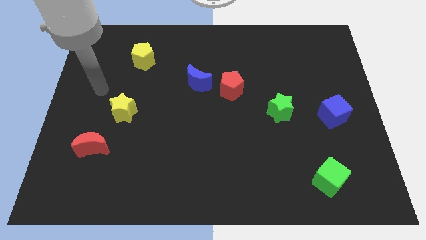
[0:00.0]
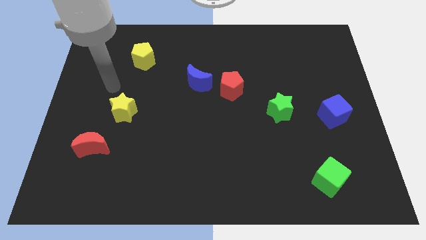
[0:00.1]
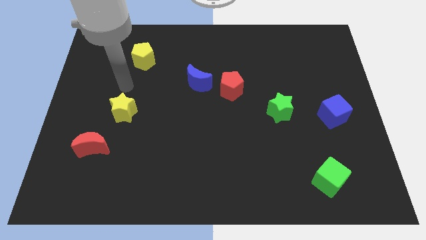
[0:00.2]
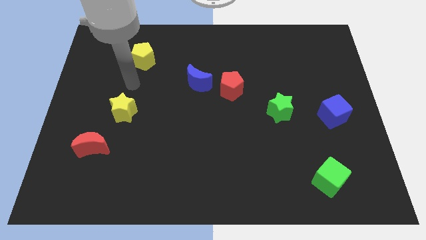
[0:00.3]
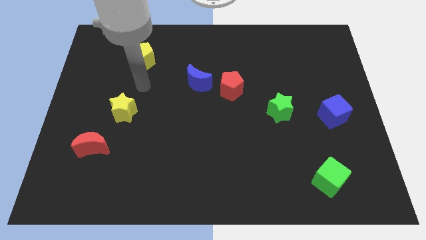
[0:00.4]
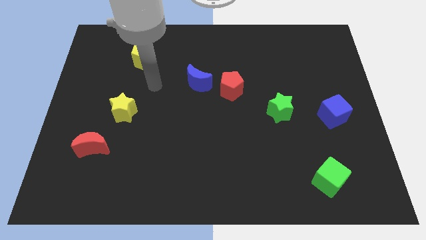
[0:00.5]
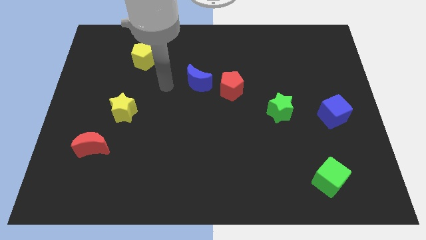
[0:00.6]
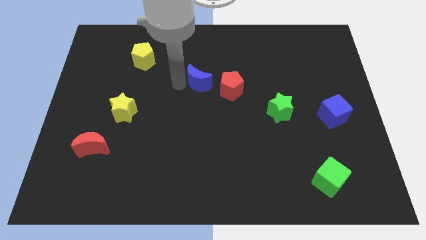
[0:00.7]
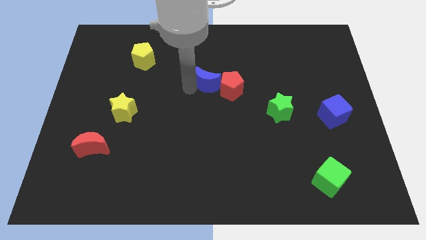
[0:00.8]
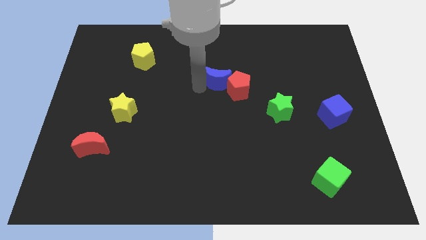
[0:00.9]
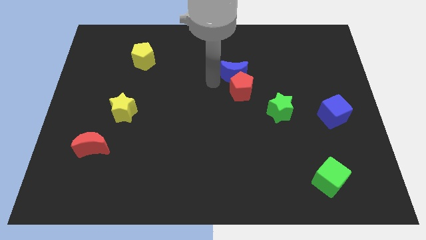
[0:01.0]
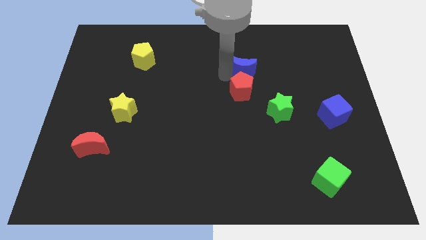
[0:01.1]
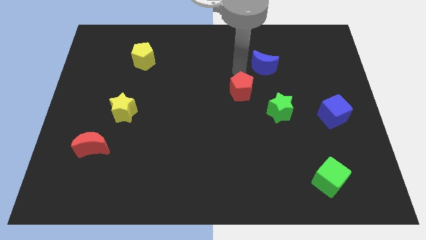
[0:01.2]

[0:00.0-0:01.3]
move the red pentagon away from the blue moon

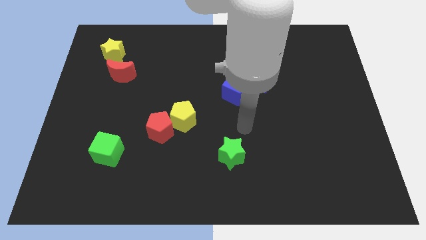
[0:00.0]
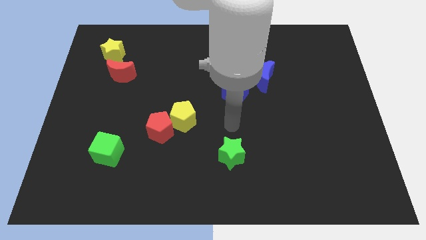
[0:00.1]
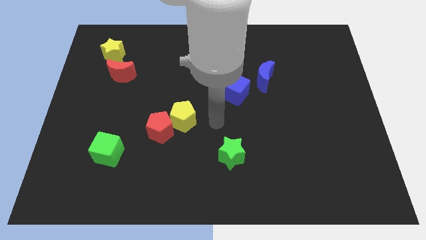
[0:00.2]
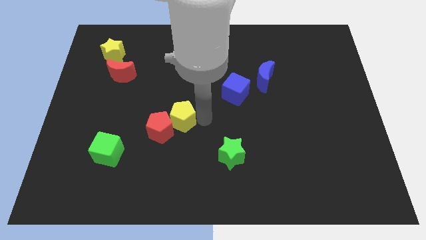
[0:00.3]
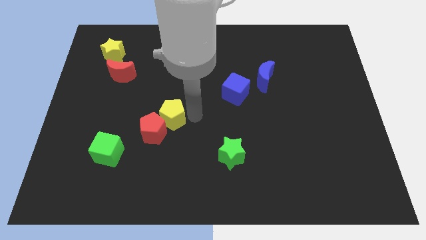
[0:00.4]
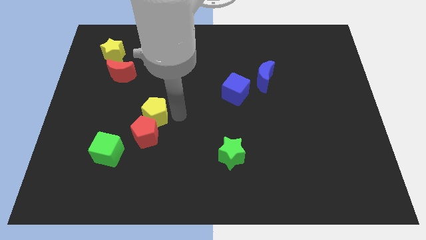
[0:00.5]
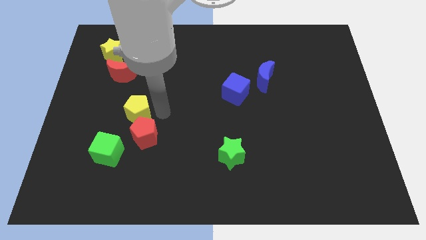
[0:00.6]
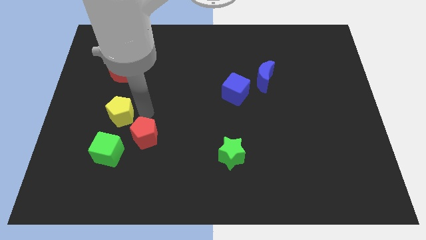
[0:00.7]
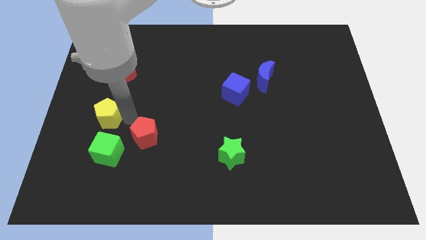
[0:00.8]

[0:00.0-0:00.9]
move the red pentagon away from the yellow pentagon

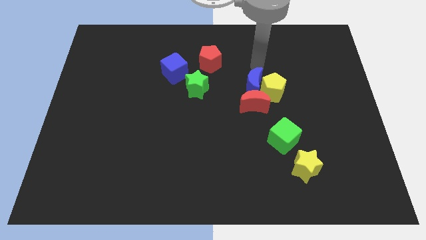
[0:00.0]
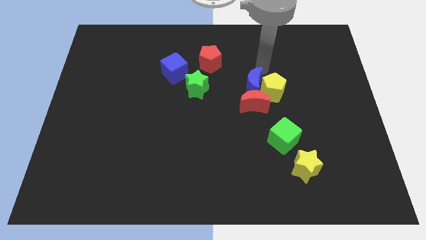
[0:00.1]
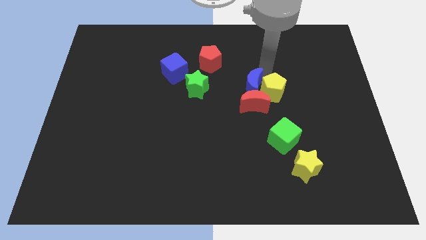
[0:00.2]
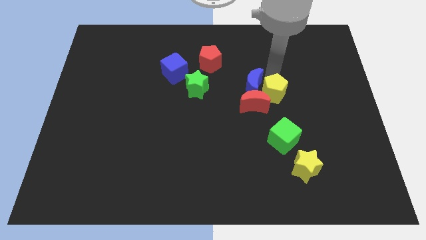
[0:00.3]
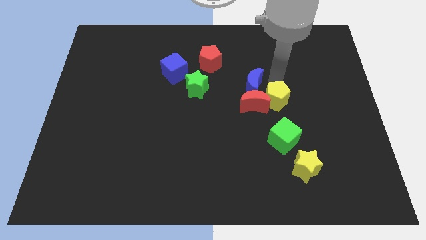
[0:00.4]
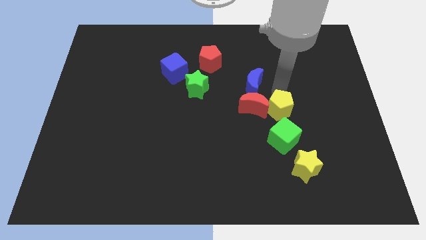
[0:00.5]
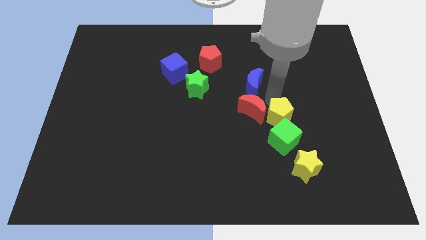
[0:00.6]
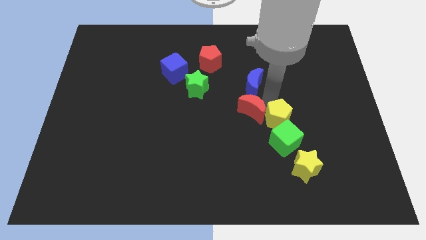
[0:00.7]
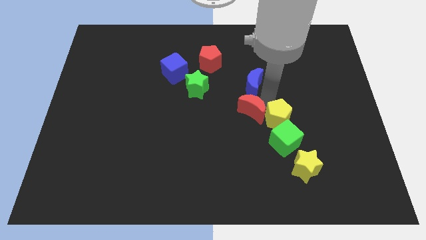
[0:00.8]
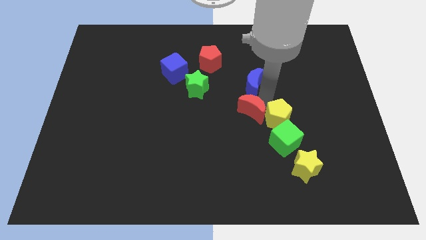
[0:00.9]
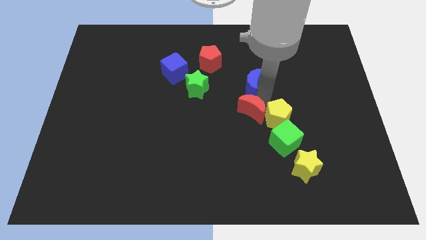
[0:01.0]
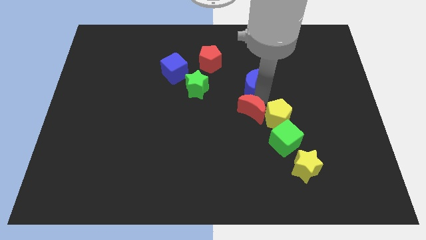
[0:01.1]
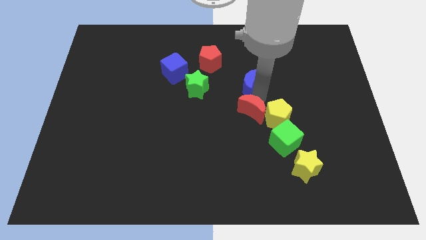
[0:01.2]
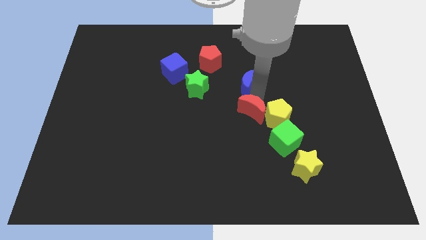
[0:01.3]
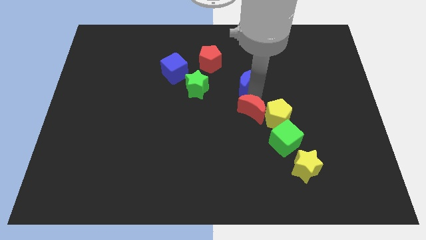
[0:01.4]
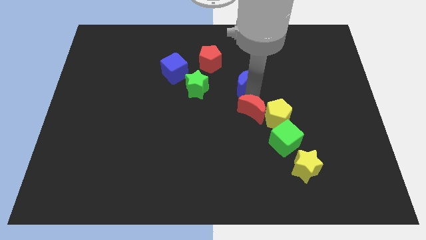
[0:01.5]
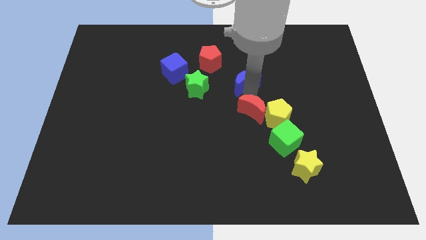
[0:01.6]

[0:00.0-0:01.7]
pull the blue moon apart from the yellow pentagon and red moon

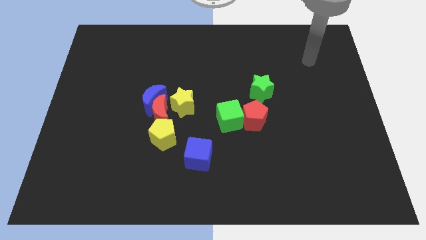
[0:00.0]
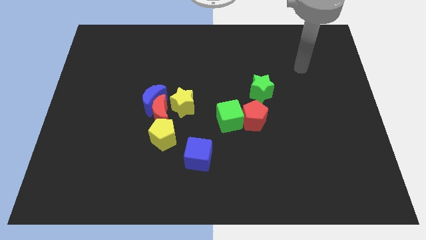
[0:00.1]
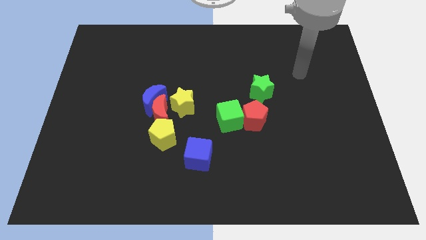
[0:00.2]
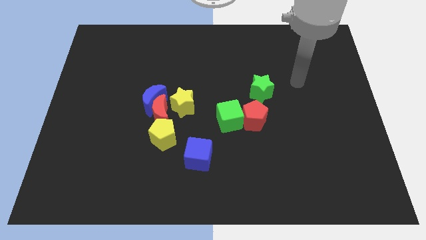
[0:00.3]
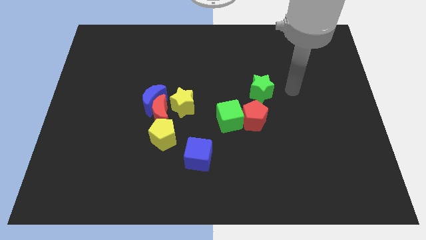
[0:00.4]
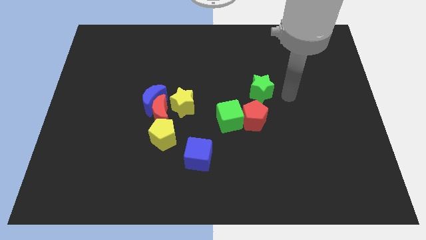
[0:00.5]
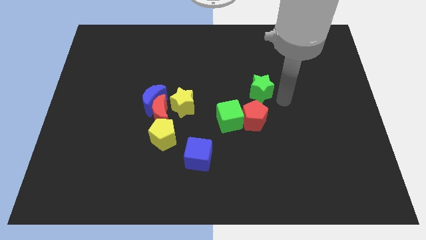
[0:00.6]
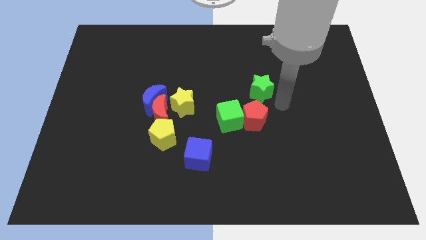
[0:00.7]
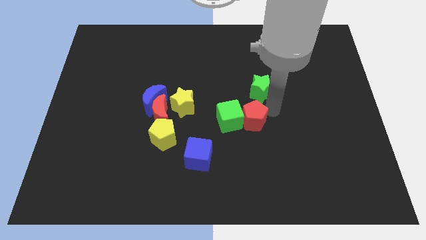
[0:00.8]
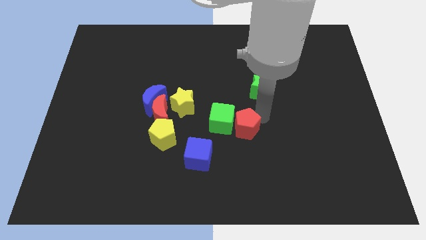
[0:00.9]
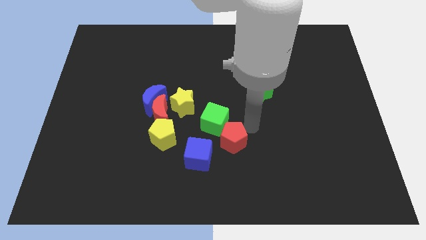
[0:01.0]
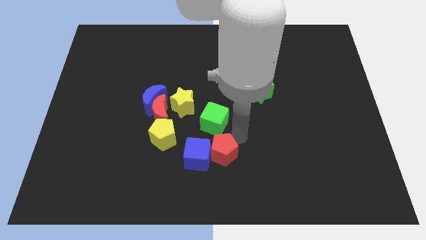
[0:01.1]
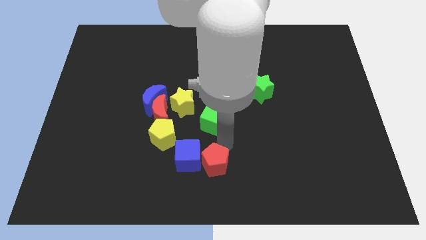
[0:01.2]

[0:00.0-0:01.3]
move the green cube away from the red pentagon

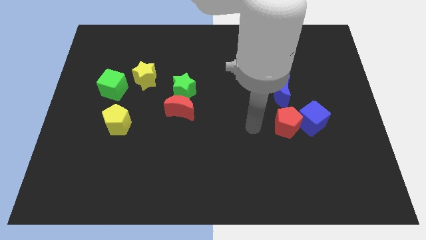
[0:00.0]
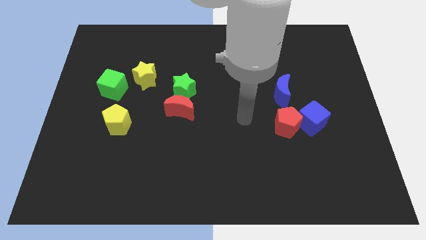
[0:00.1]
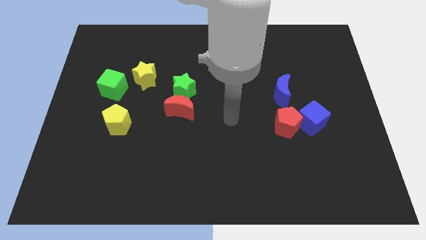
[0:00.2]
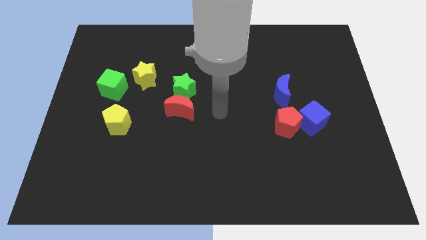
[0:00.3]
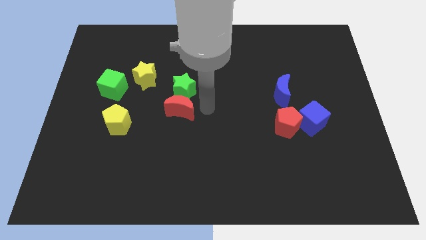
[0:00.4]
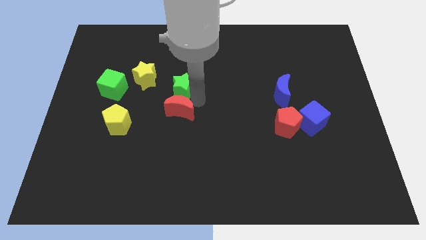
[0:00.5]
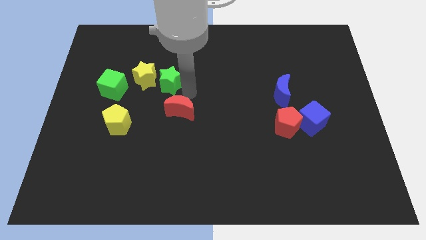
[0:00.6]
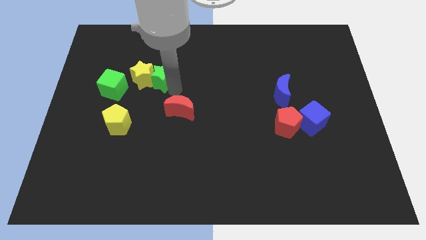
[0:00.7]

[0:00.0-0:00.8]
separate the red moon from the green star

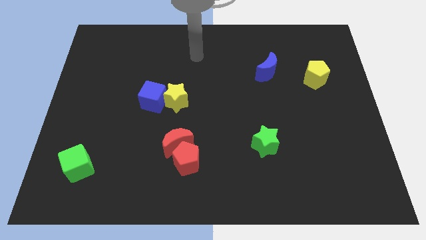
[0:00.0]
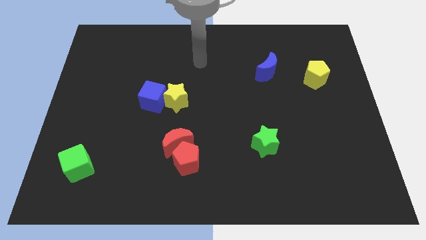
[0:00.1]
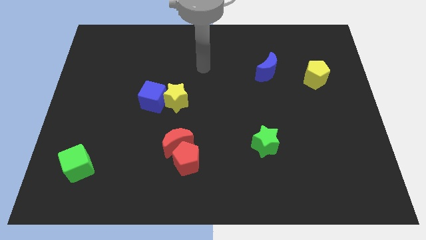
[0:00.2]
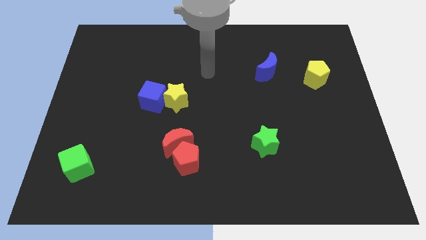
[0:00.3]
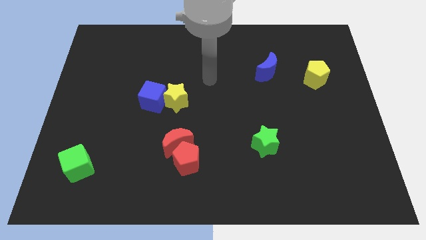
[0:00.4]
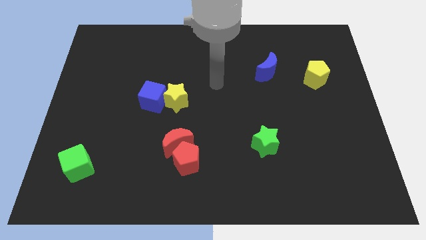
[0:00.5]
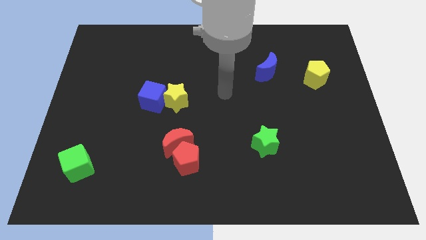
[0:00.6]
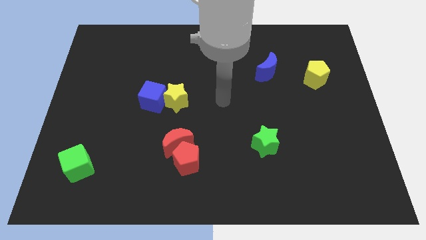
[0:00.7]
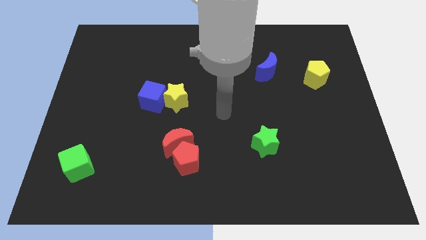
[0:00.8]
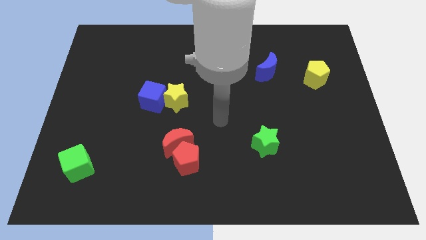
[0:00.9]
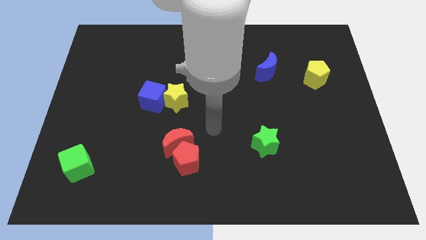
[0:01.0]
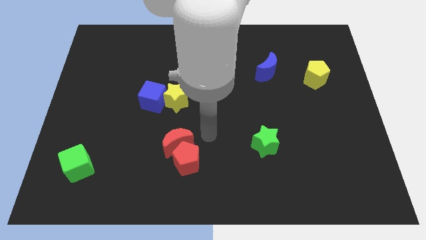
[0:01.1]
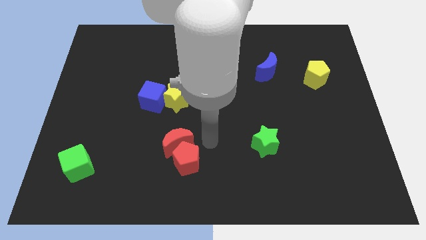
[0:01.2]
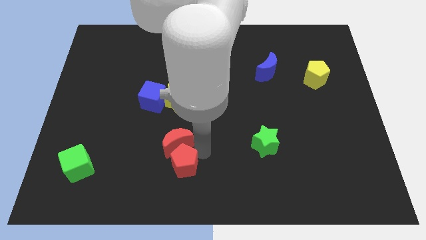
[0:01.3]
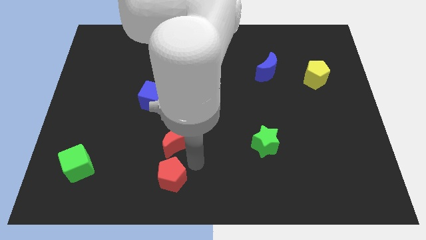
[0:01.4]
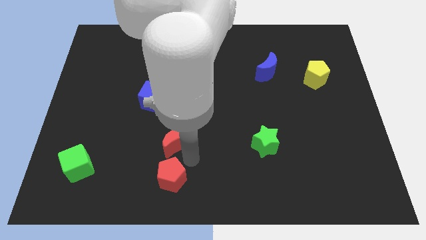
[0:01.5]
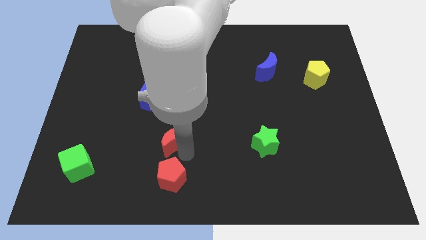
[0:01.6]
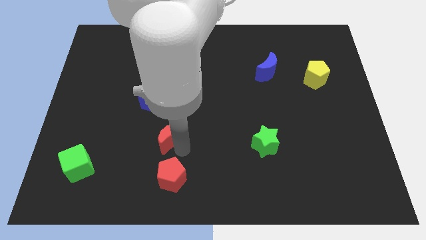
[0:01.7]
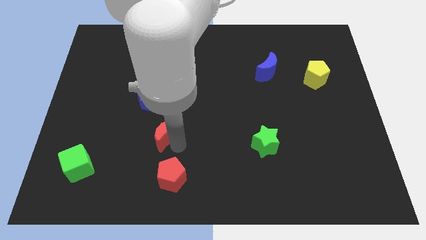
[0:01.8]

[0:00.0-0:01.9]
pull the red moon apart from the red pentagon

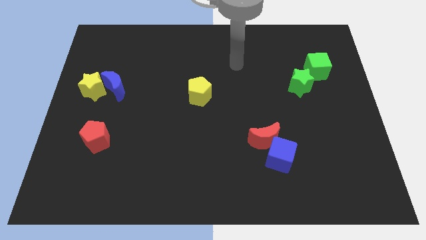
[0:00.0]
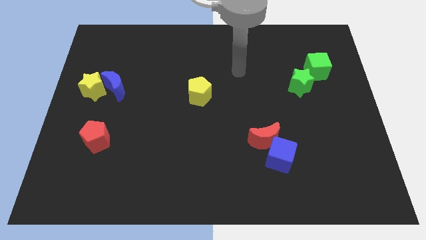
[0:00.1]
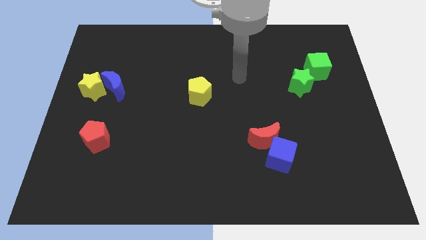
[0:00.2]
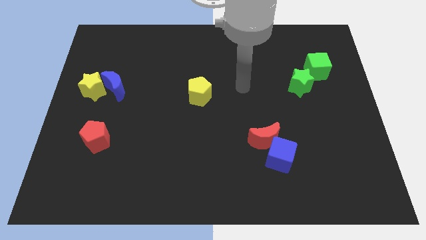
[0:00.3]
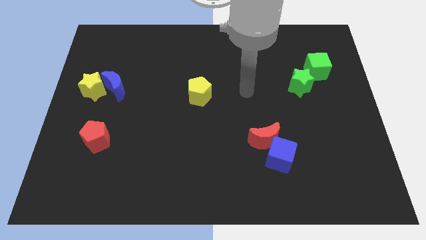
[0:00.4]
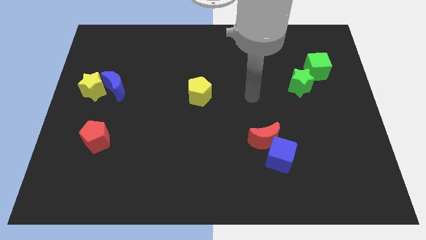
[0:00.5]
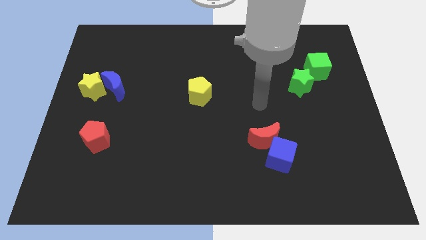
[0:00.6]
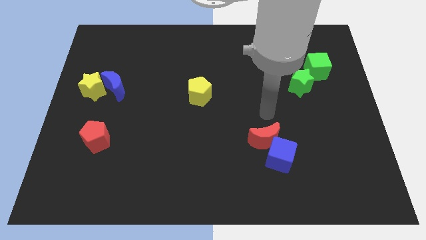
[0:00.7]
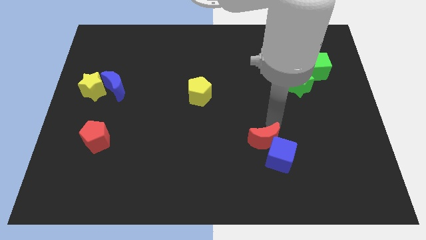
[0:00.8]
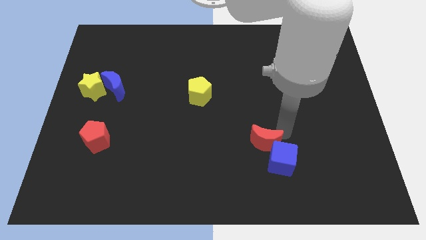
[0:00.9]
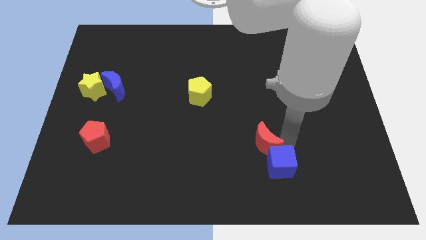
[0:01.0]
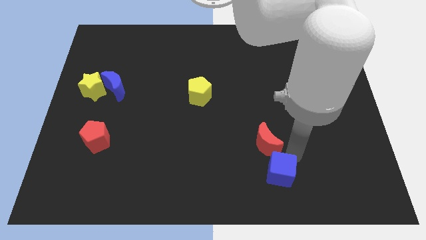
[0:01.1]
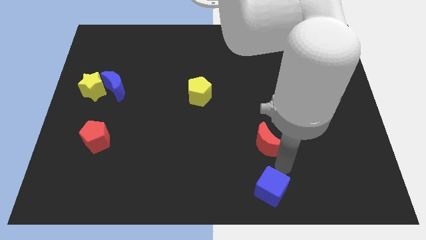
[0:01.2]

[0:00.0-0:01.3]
separate the red moon from the blue cube

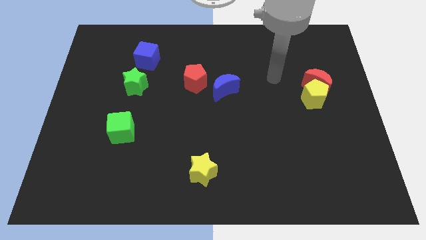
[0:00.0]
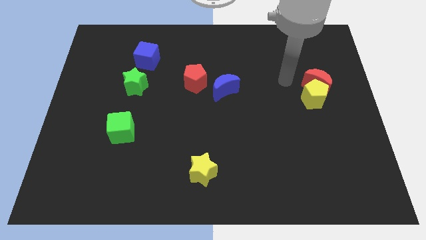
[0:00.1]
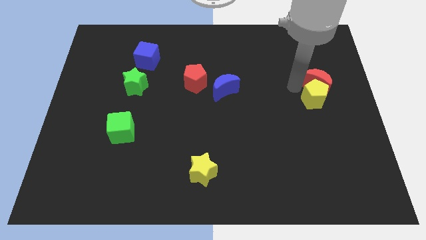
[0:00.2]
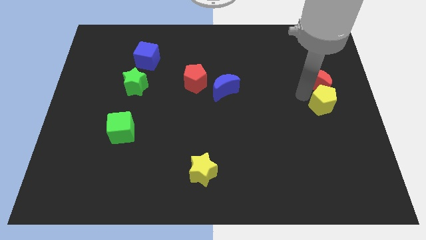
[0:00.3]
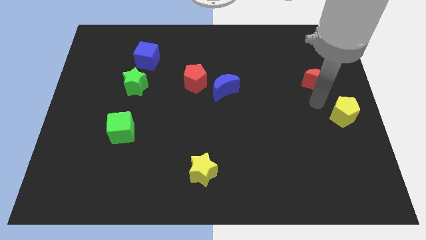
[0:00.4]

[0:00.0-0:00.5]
move the red moon away from the yellow pentagon
